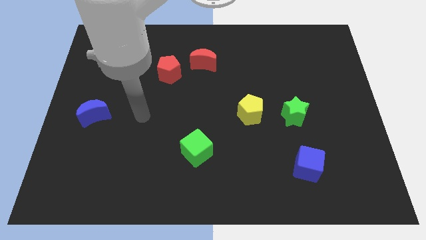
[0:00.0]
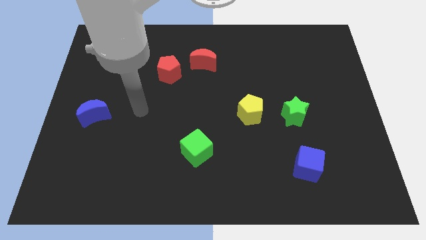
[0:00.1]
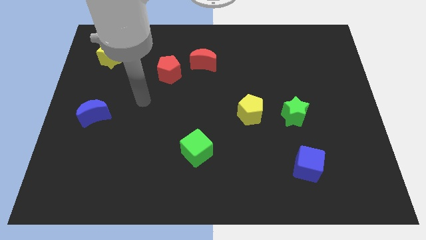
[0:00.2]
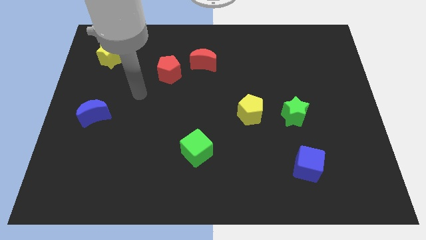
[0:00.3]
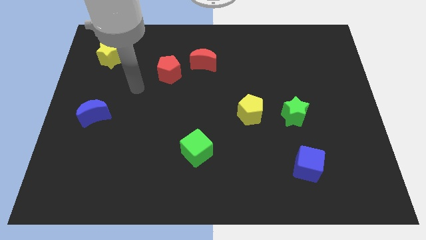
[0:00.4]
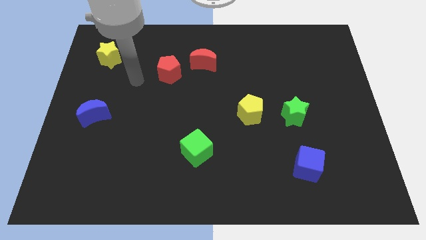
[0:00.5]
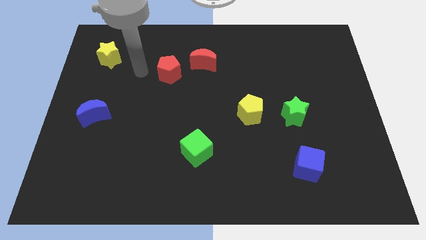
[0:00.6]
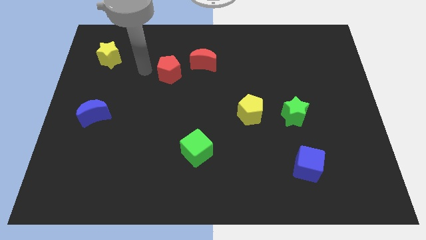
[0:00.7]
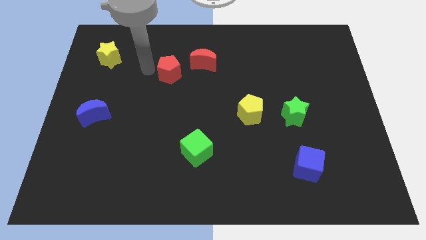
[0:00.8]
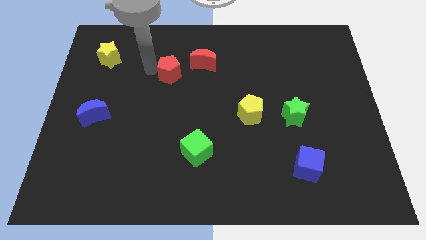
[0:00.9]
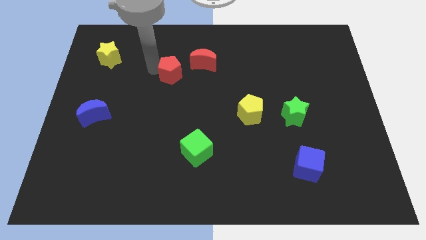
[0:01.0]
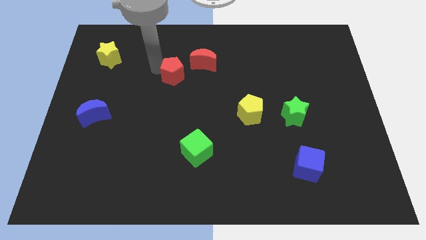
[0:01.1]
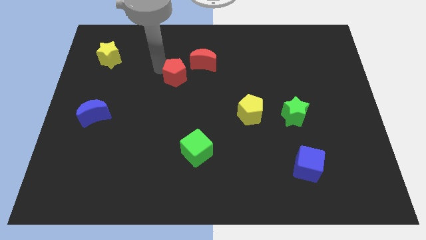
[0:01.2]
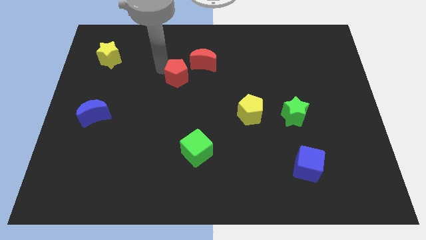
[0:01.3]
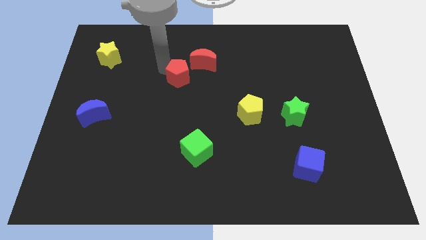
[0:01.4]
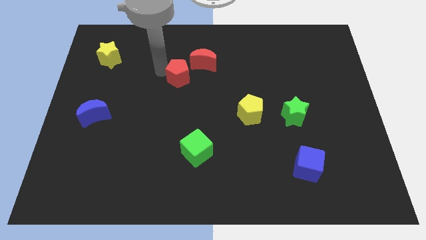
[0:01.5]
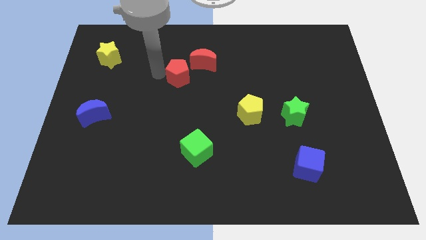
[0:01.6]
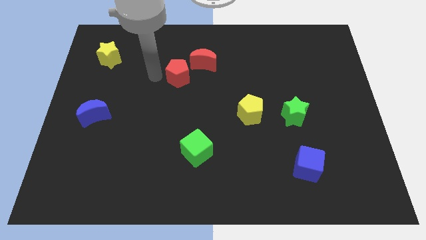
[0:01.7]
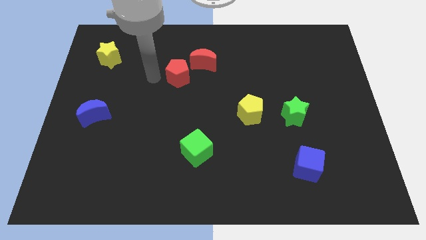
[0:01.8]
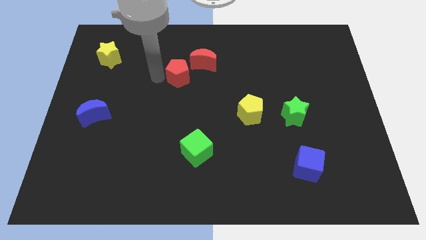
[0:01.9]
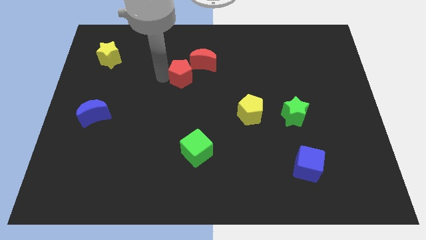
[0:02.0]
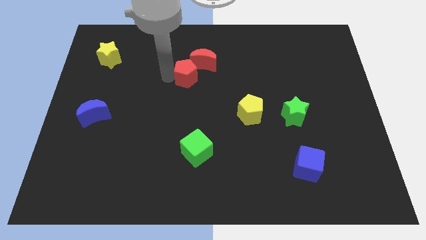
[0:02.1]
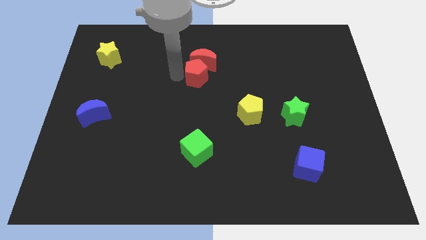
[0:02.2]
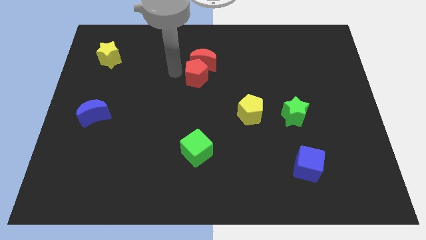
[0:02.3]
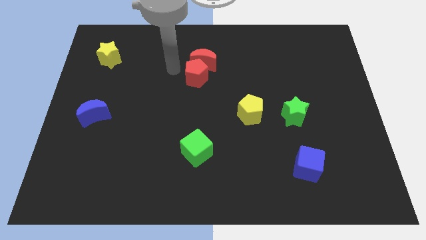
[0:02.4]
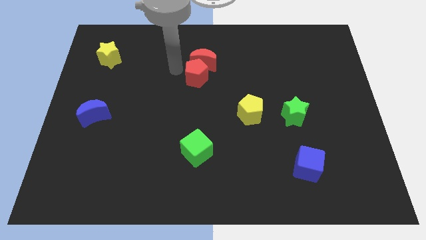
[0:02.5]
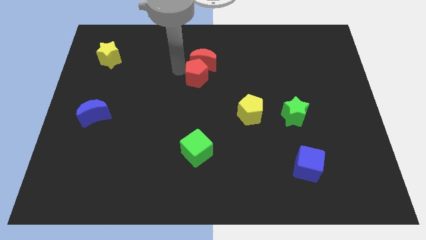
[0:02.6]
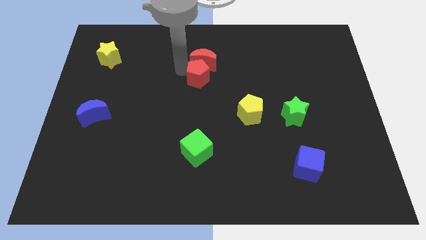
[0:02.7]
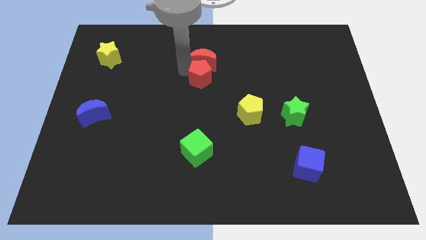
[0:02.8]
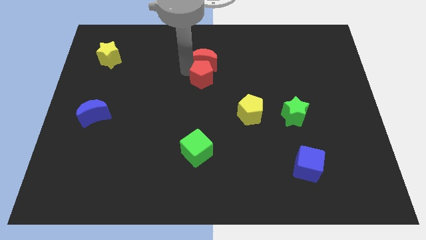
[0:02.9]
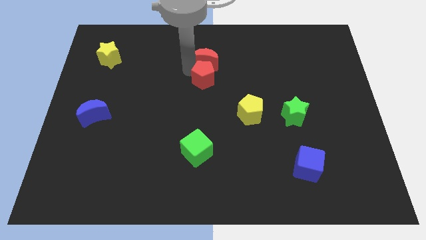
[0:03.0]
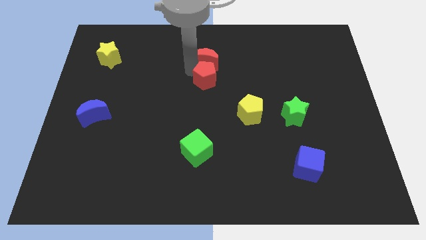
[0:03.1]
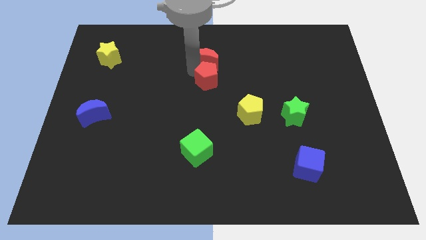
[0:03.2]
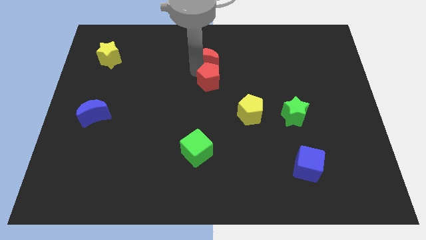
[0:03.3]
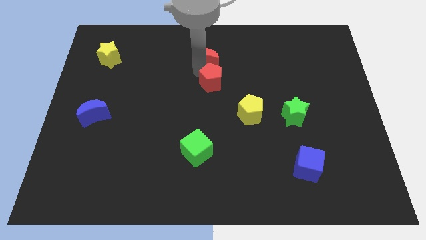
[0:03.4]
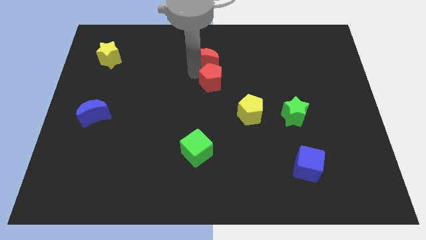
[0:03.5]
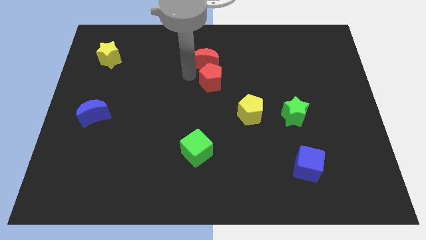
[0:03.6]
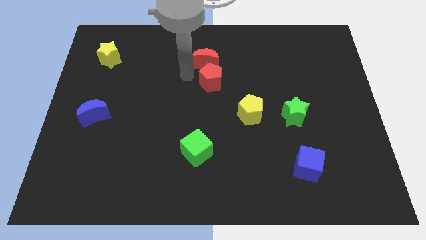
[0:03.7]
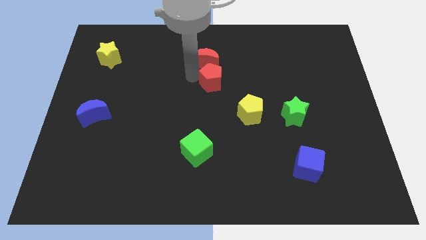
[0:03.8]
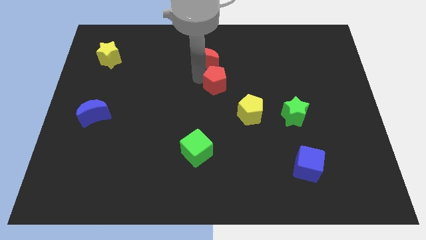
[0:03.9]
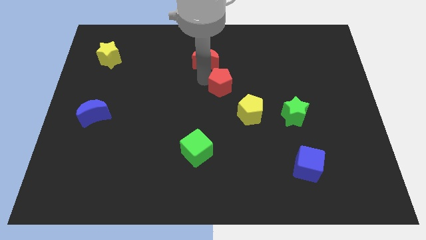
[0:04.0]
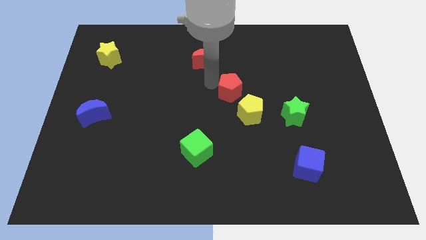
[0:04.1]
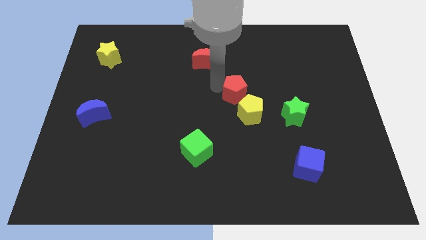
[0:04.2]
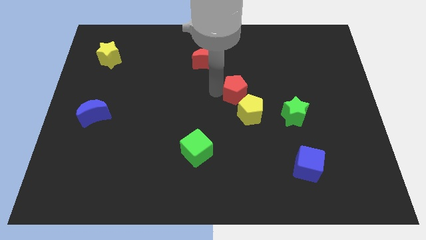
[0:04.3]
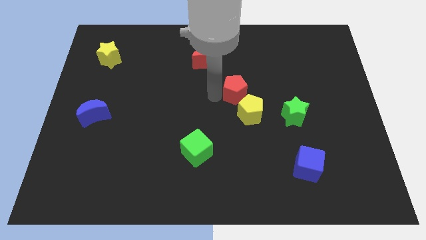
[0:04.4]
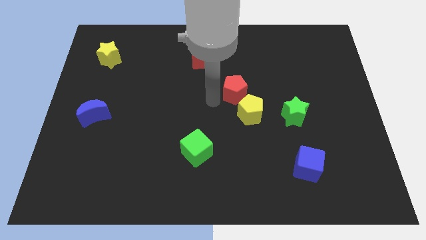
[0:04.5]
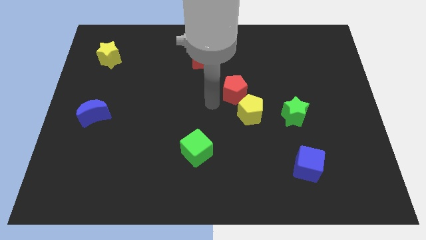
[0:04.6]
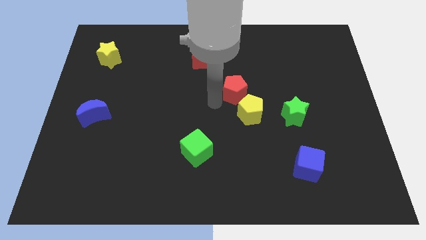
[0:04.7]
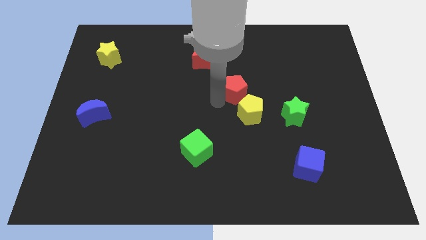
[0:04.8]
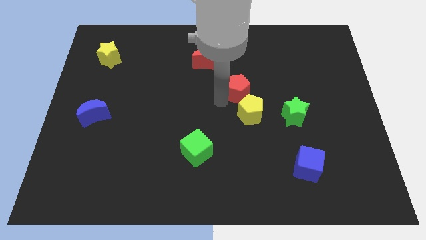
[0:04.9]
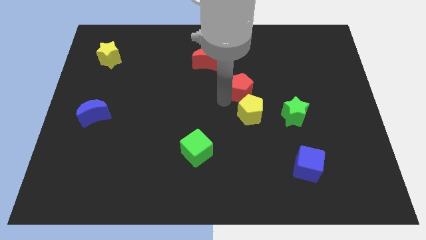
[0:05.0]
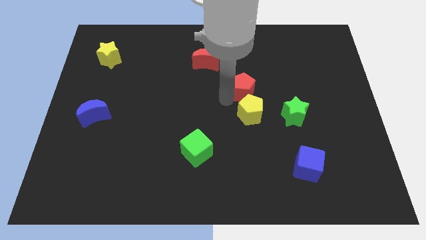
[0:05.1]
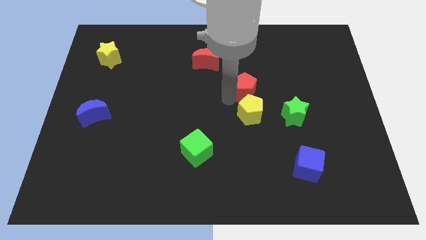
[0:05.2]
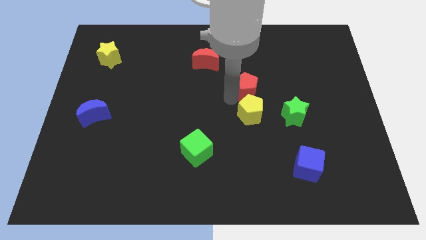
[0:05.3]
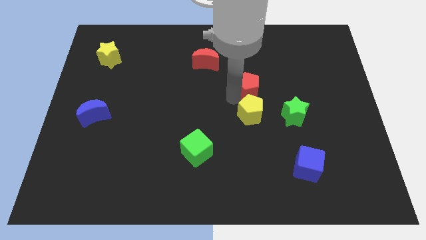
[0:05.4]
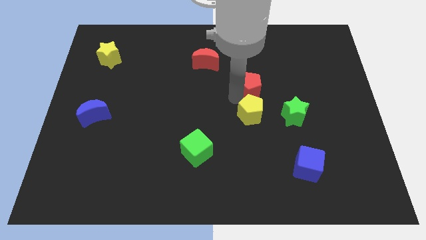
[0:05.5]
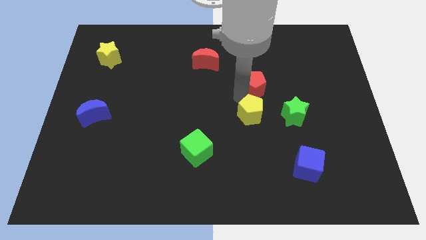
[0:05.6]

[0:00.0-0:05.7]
push the red pentagon to the right

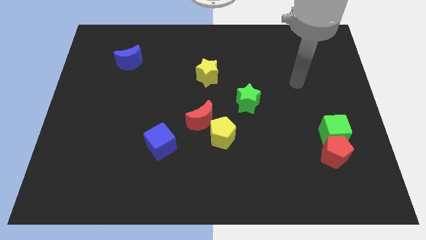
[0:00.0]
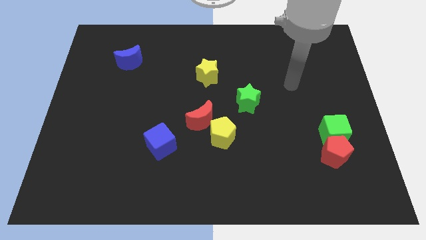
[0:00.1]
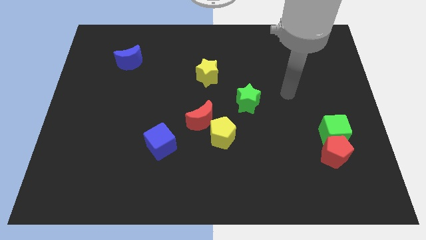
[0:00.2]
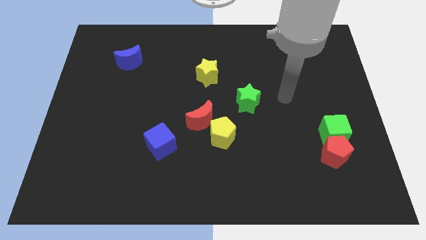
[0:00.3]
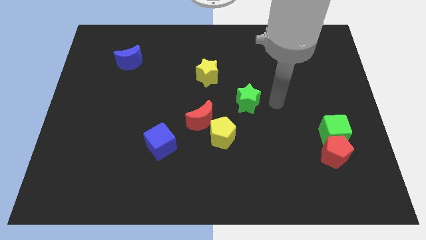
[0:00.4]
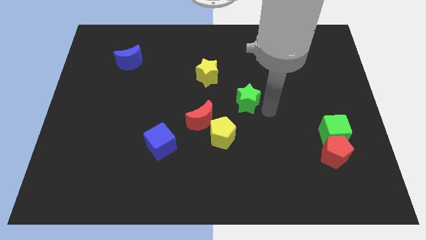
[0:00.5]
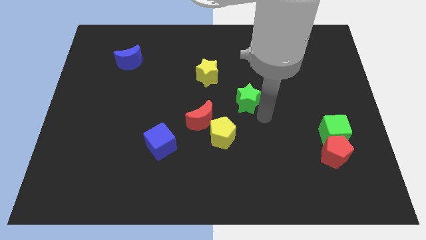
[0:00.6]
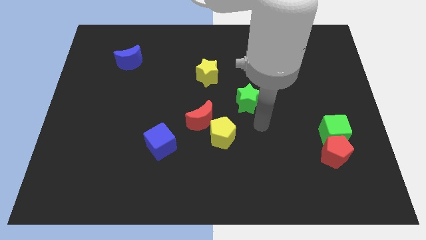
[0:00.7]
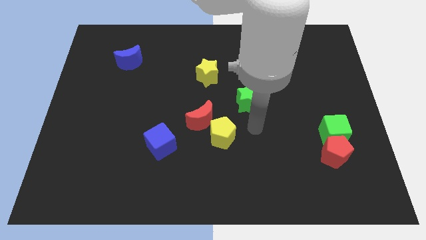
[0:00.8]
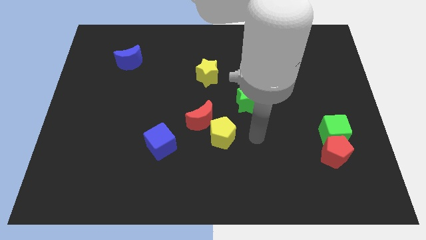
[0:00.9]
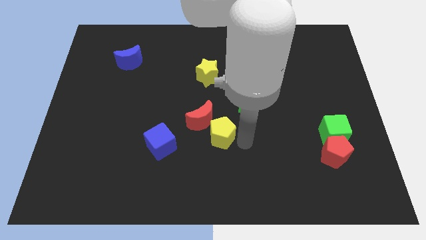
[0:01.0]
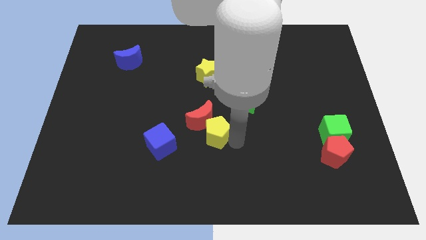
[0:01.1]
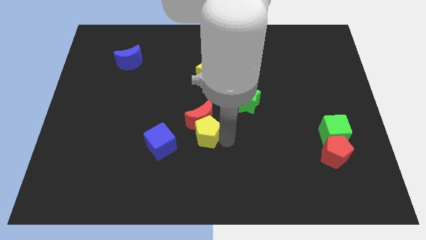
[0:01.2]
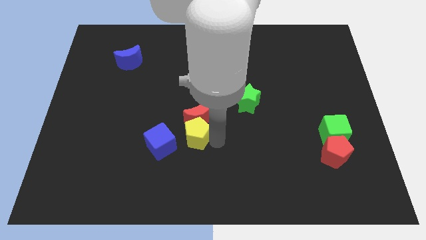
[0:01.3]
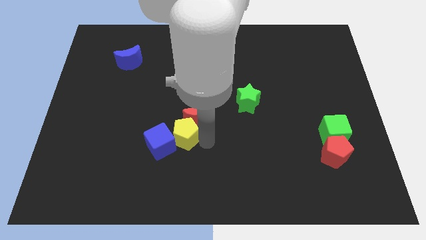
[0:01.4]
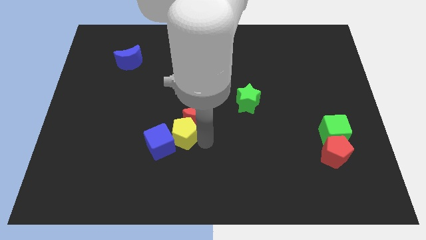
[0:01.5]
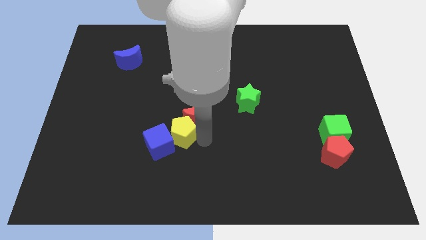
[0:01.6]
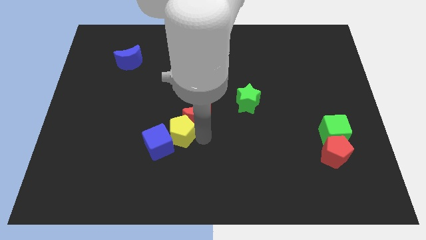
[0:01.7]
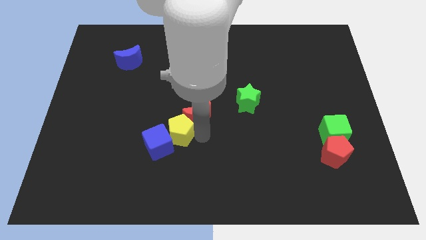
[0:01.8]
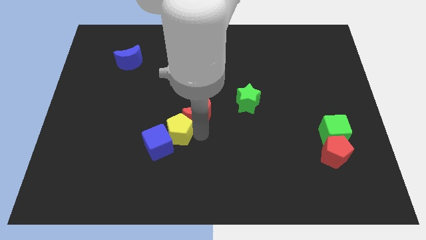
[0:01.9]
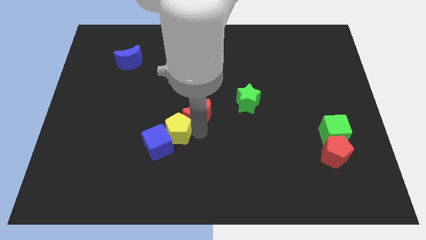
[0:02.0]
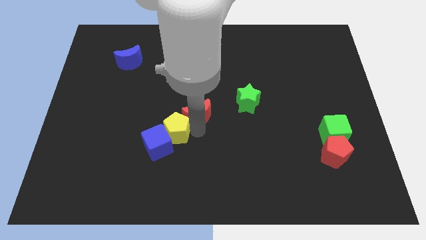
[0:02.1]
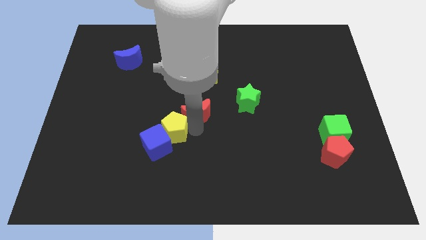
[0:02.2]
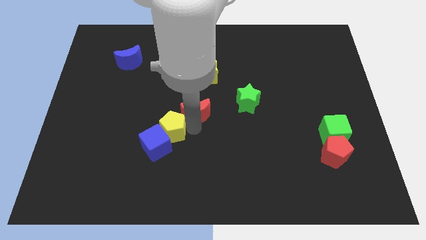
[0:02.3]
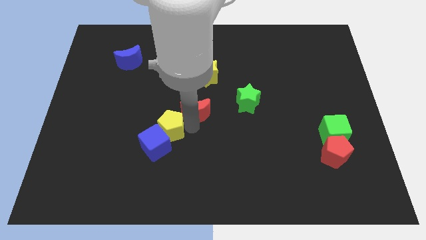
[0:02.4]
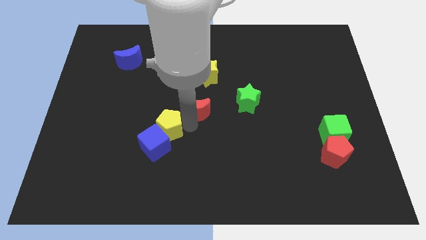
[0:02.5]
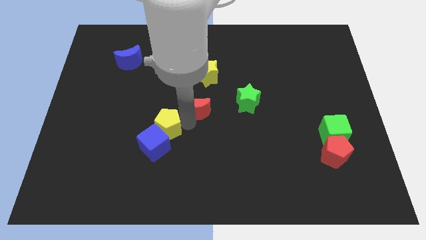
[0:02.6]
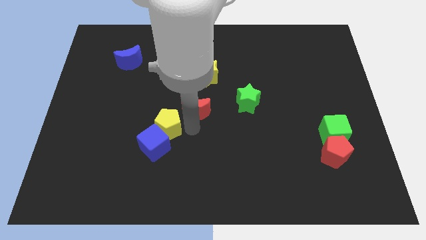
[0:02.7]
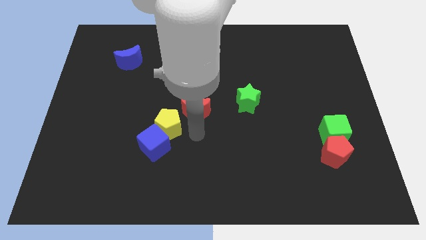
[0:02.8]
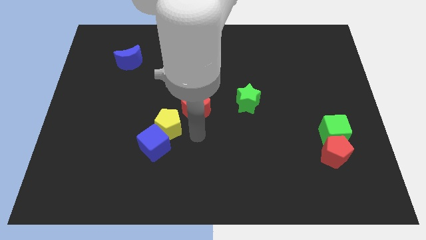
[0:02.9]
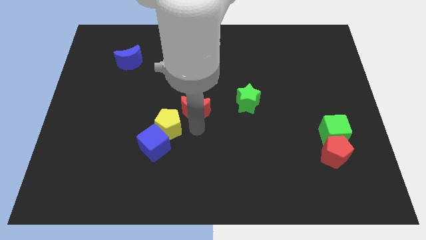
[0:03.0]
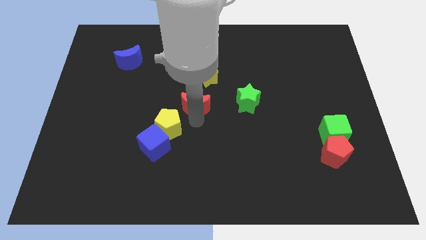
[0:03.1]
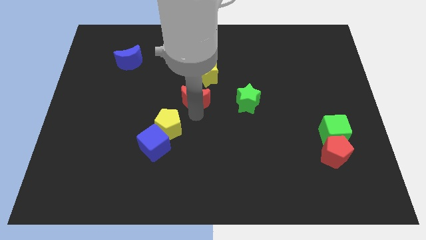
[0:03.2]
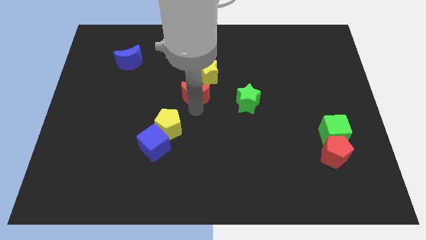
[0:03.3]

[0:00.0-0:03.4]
slightly move the red moon up
